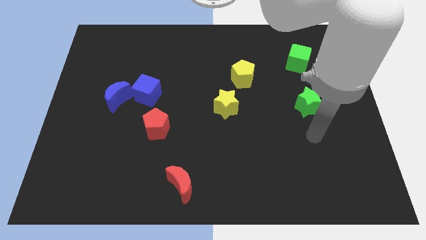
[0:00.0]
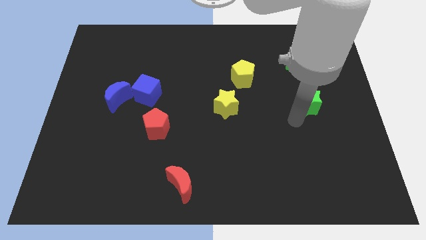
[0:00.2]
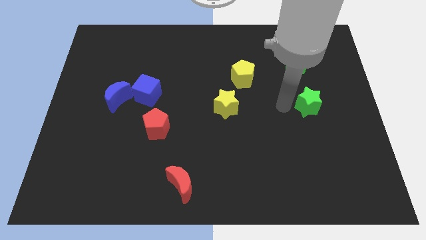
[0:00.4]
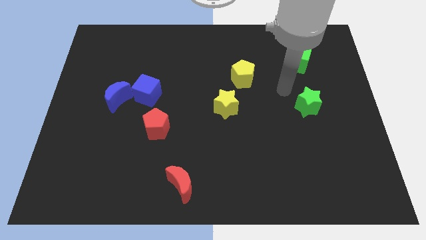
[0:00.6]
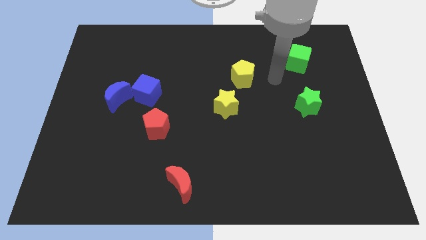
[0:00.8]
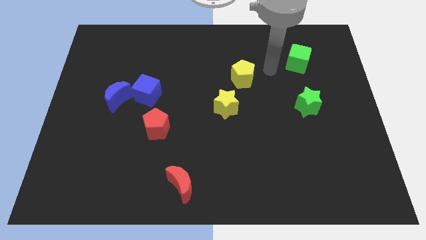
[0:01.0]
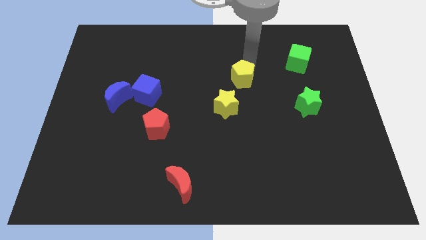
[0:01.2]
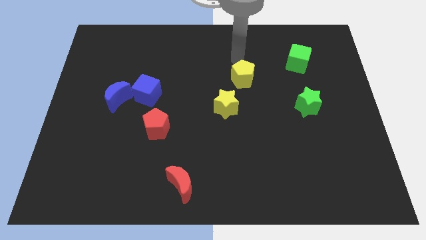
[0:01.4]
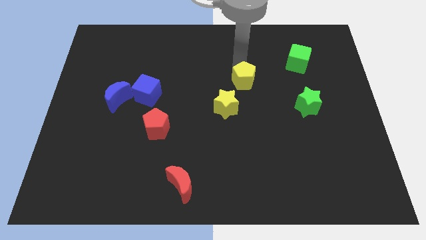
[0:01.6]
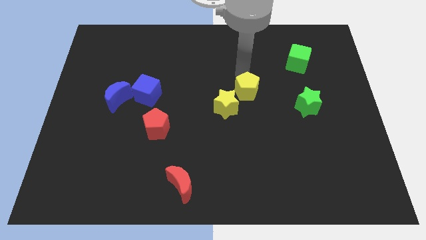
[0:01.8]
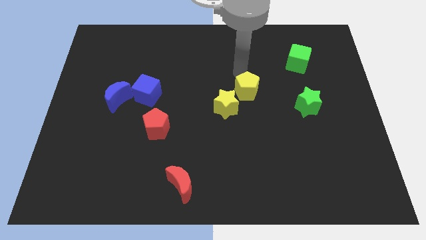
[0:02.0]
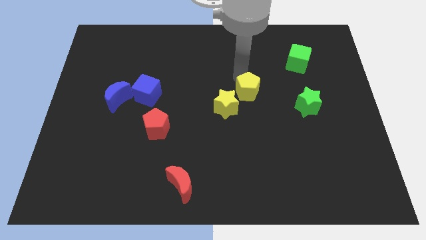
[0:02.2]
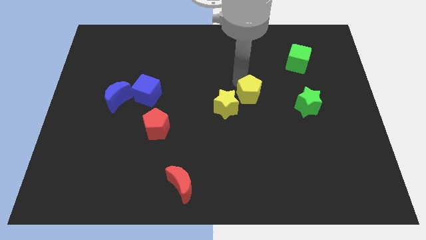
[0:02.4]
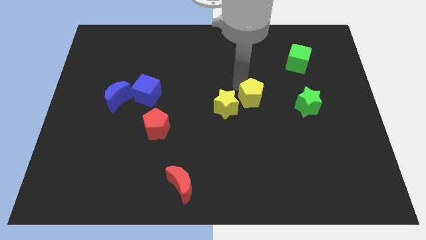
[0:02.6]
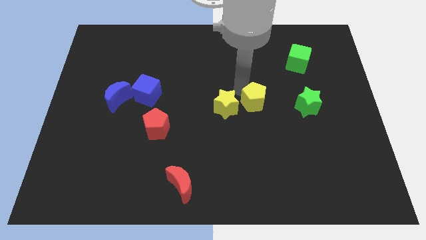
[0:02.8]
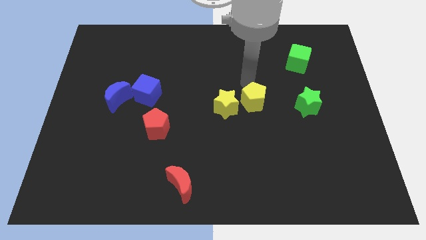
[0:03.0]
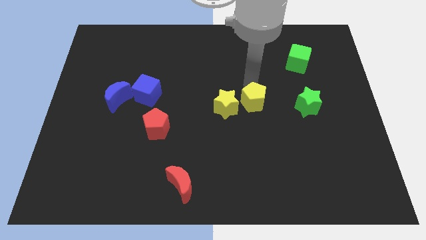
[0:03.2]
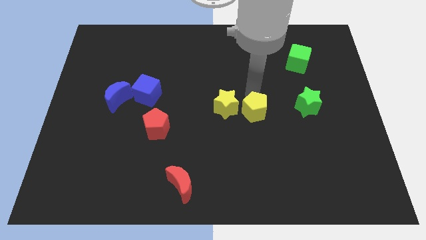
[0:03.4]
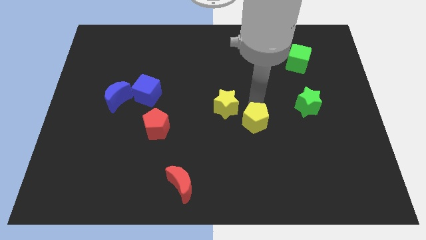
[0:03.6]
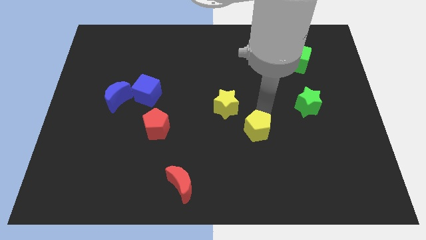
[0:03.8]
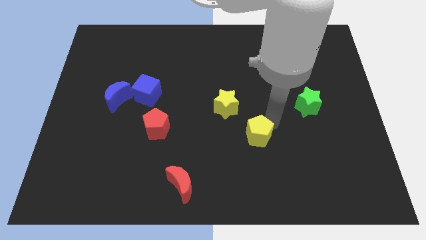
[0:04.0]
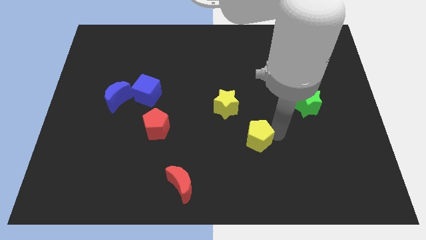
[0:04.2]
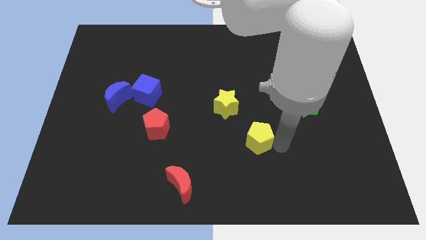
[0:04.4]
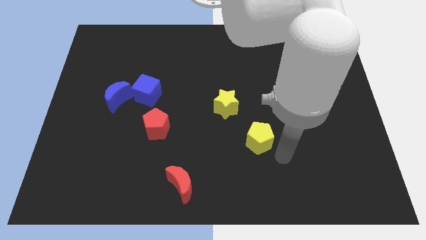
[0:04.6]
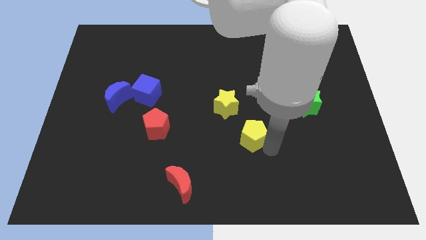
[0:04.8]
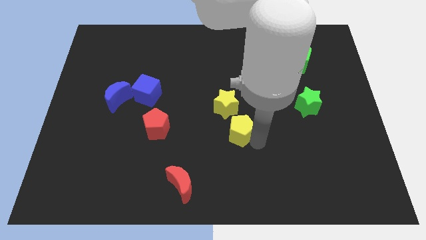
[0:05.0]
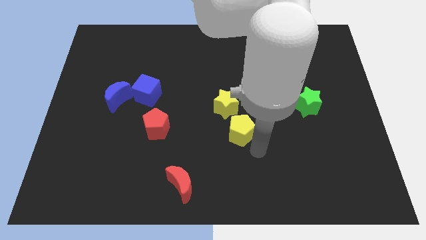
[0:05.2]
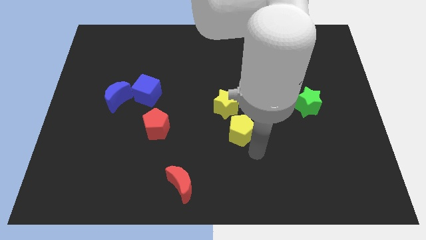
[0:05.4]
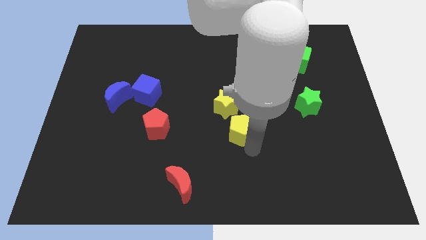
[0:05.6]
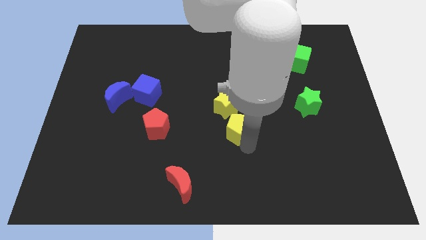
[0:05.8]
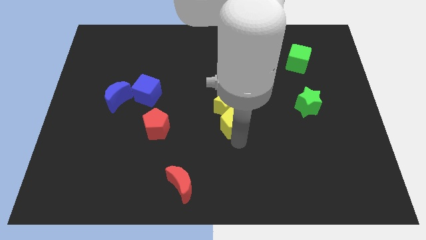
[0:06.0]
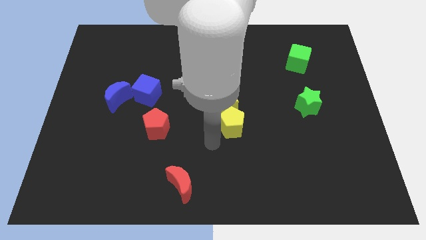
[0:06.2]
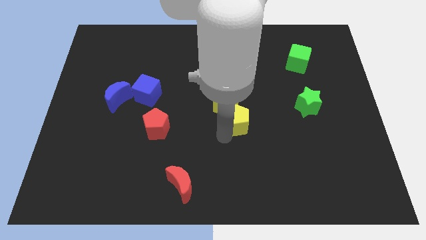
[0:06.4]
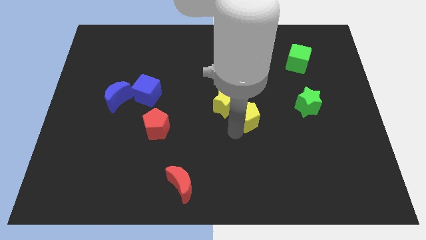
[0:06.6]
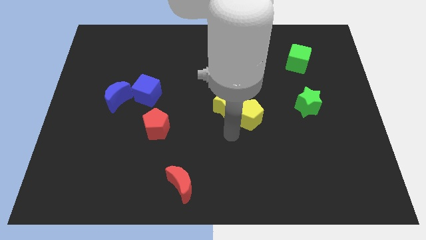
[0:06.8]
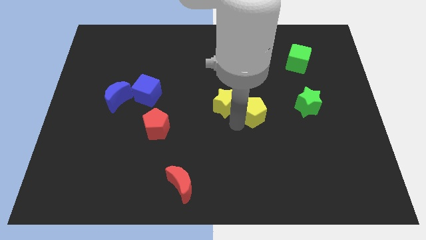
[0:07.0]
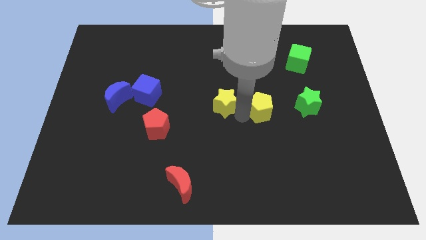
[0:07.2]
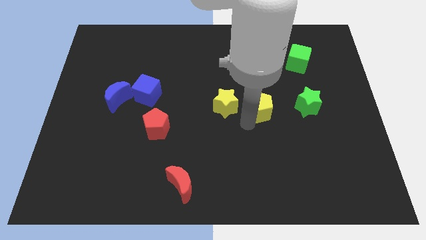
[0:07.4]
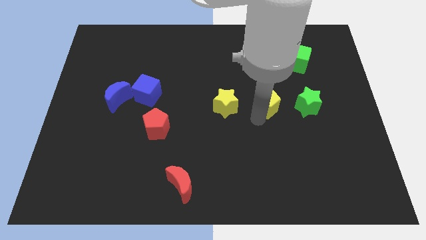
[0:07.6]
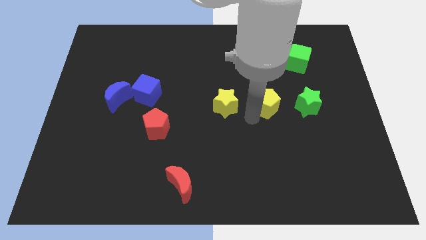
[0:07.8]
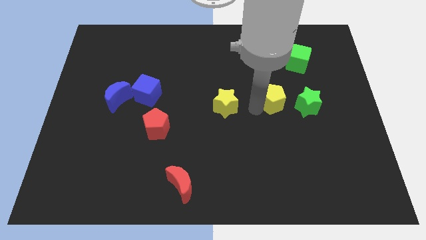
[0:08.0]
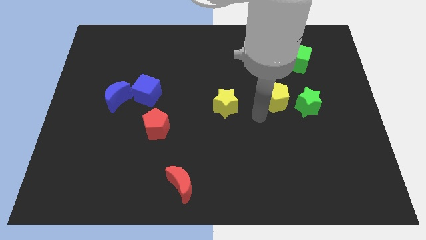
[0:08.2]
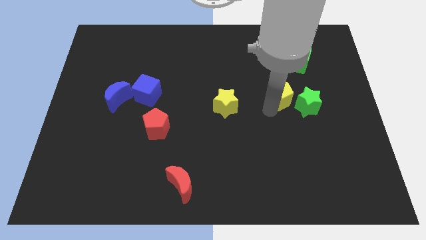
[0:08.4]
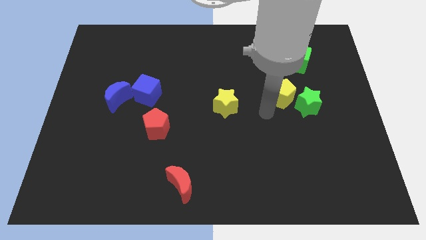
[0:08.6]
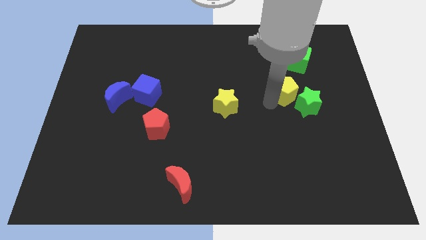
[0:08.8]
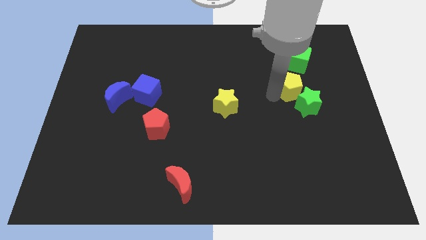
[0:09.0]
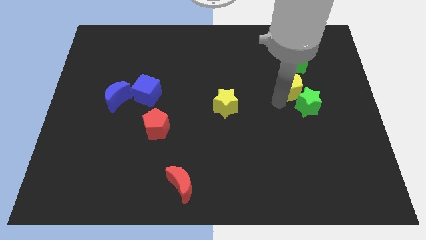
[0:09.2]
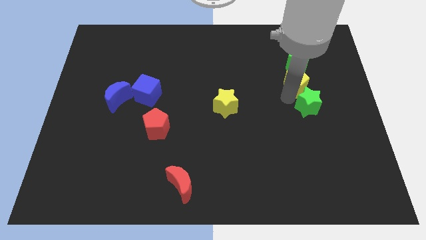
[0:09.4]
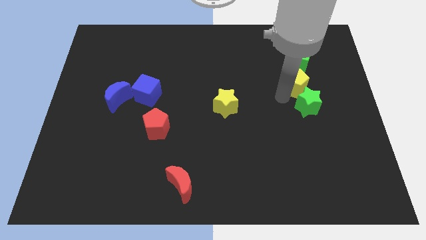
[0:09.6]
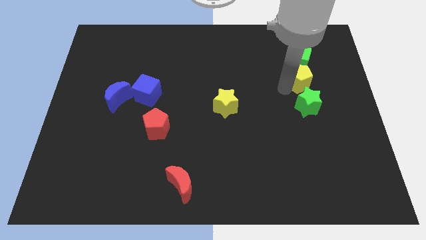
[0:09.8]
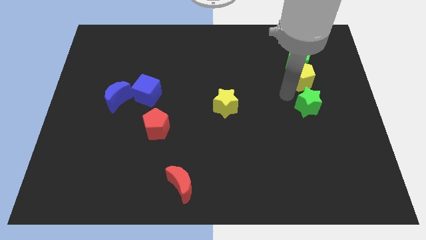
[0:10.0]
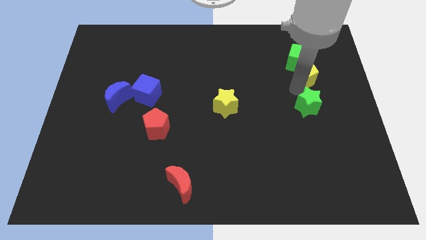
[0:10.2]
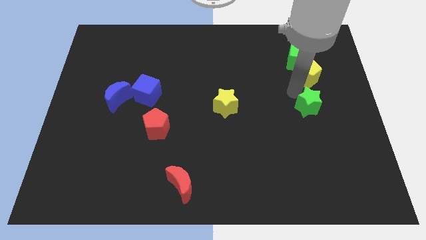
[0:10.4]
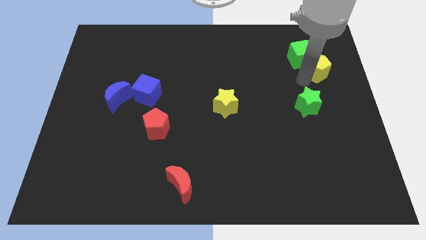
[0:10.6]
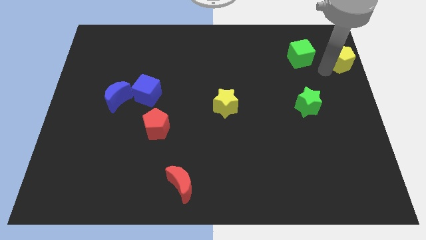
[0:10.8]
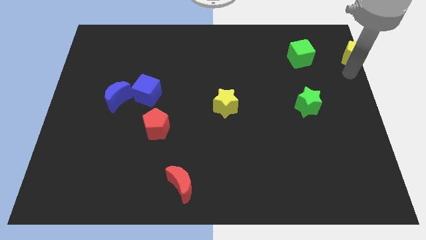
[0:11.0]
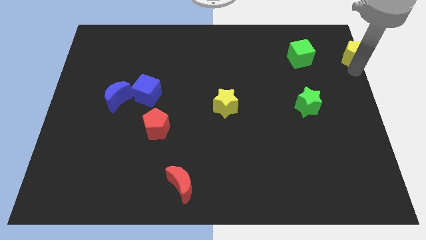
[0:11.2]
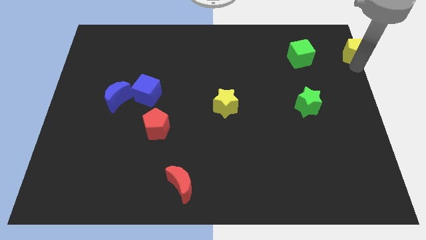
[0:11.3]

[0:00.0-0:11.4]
put the yellow pentagon to the top right corner

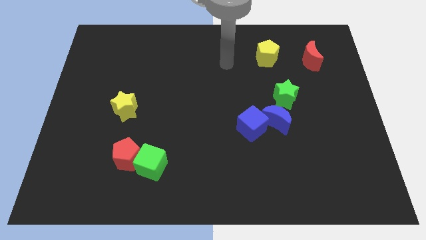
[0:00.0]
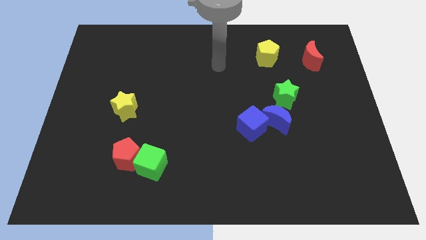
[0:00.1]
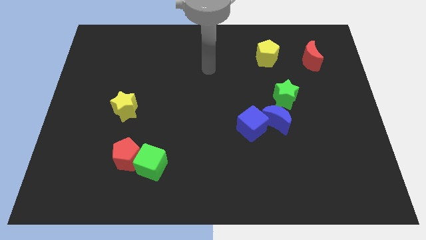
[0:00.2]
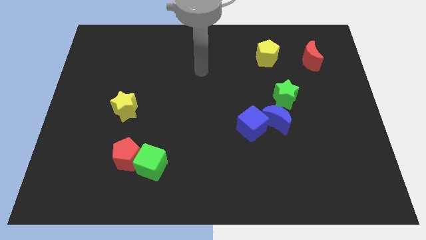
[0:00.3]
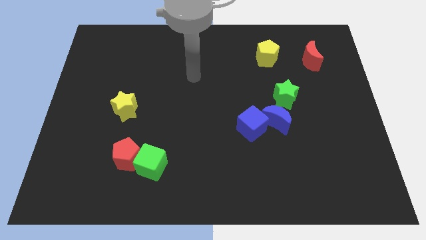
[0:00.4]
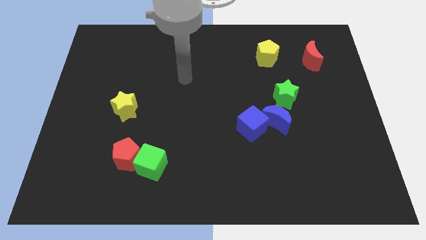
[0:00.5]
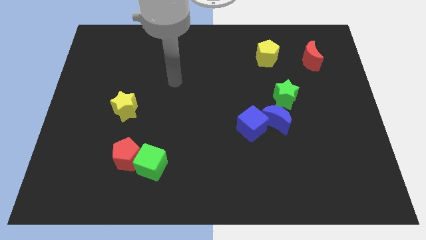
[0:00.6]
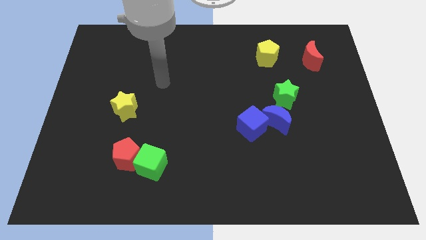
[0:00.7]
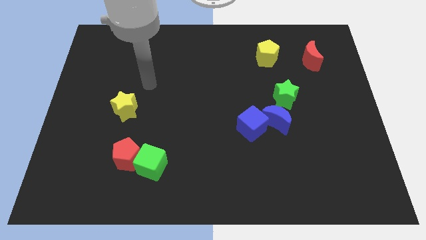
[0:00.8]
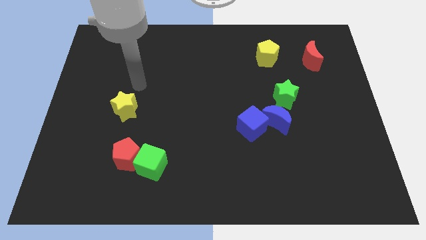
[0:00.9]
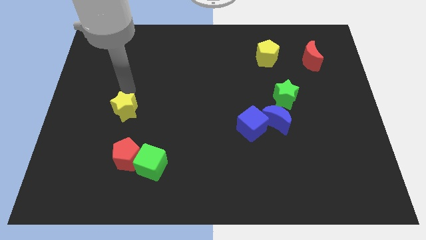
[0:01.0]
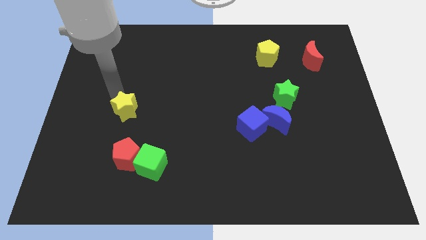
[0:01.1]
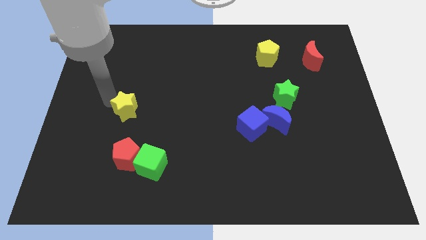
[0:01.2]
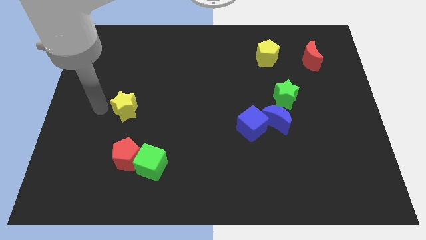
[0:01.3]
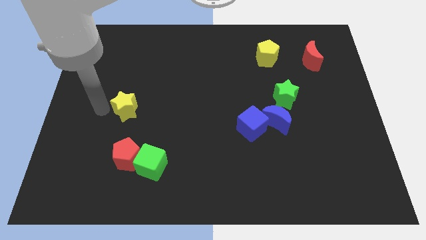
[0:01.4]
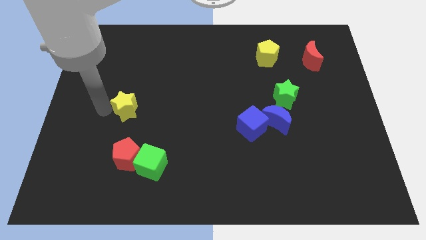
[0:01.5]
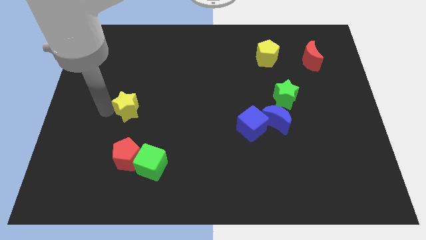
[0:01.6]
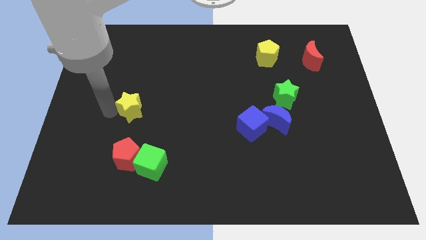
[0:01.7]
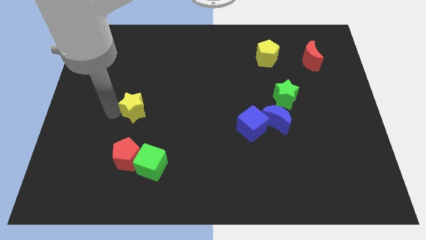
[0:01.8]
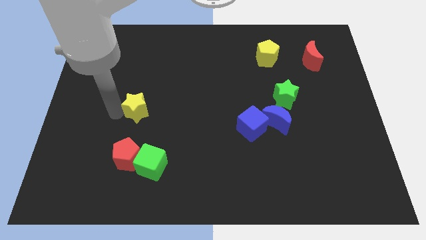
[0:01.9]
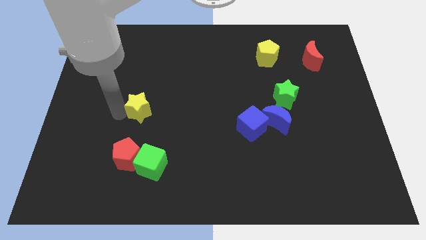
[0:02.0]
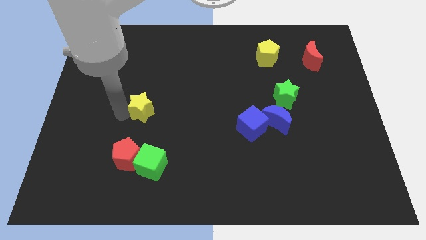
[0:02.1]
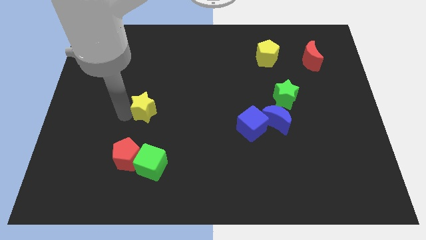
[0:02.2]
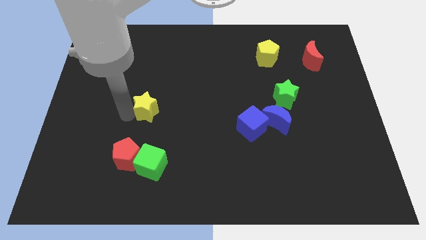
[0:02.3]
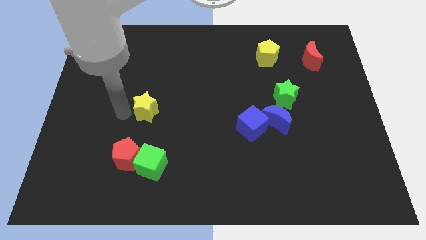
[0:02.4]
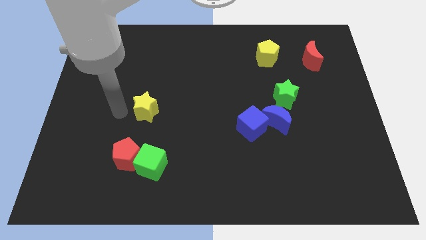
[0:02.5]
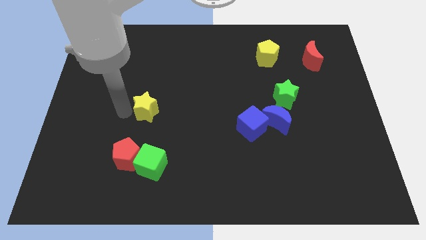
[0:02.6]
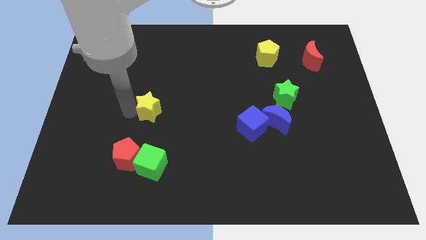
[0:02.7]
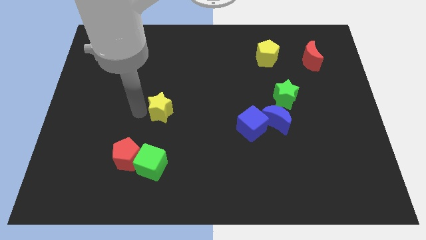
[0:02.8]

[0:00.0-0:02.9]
put the yellow star to the center
